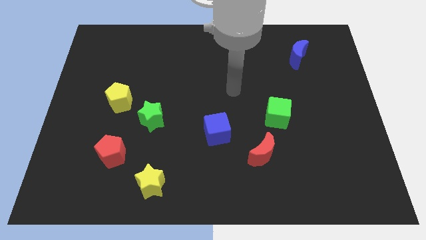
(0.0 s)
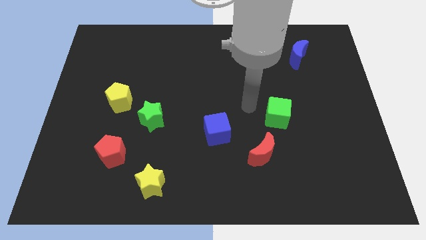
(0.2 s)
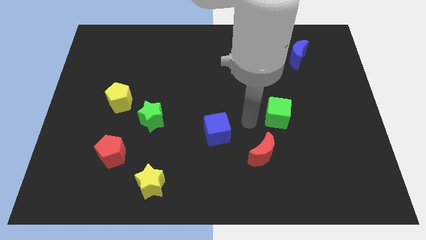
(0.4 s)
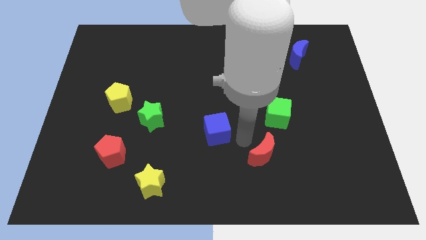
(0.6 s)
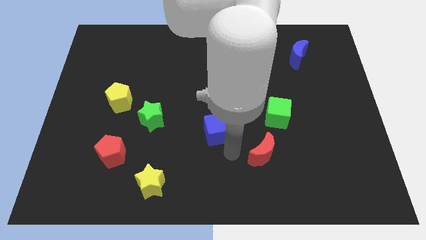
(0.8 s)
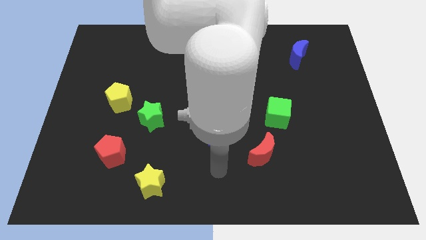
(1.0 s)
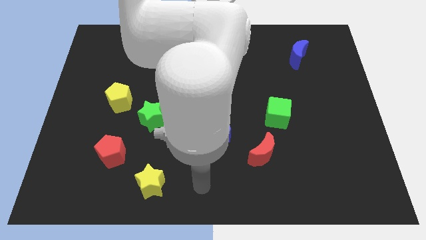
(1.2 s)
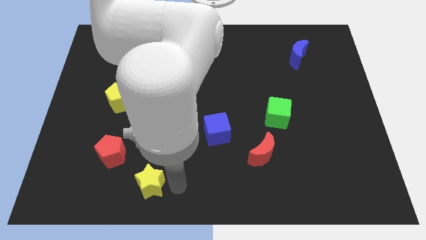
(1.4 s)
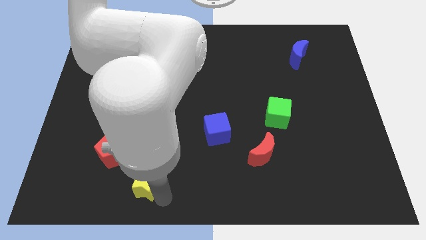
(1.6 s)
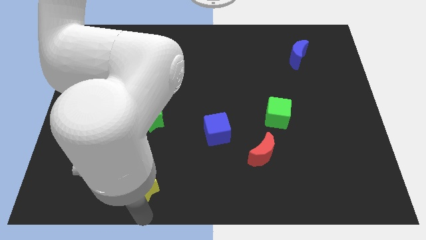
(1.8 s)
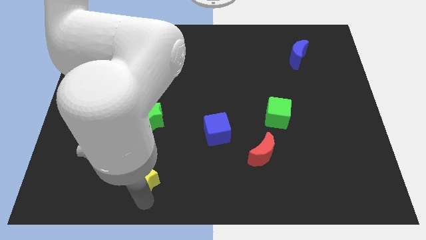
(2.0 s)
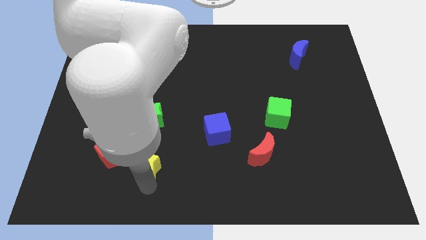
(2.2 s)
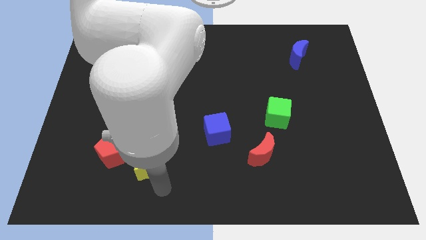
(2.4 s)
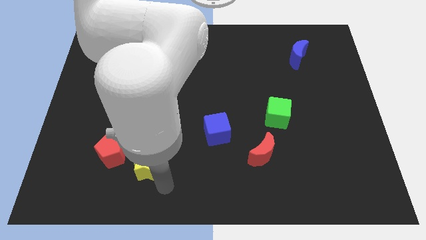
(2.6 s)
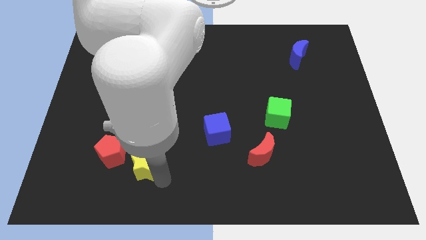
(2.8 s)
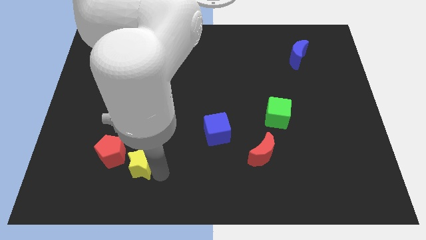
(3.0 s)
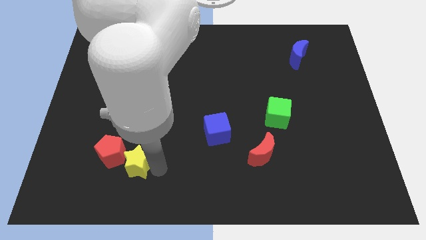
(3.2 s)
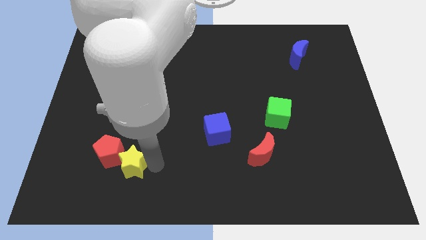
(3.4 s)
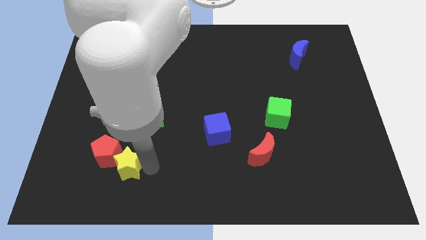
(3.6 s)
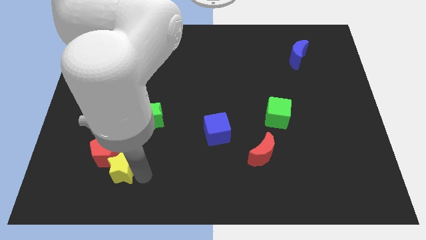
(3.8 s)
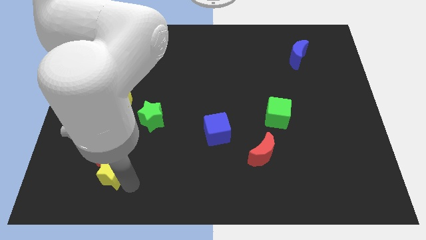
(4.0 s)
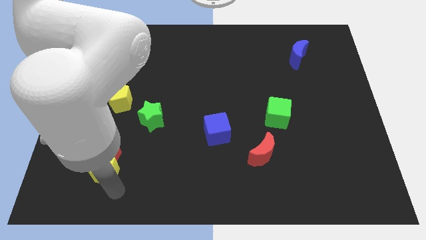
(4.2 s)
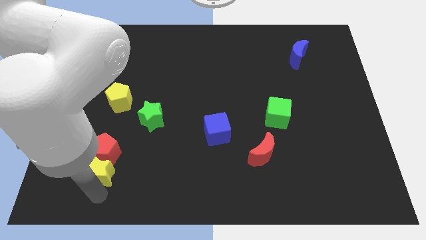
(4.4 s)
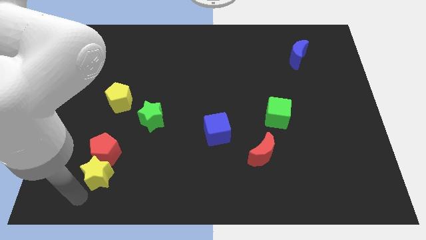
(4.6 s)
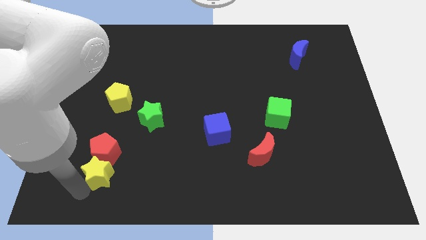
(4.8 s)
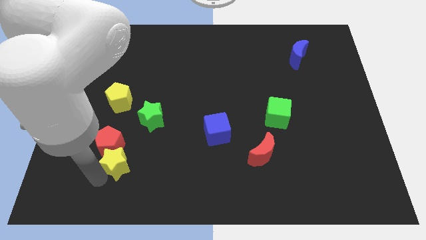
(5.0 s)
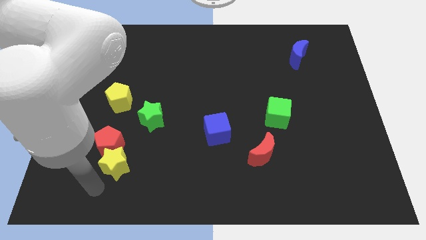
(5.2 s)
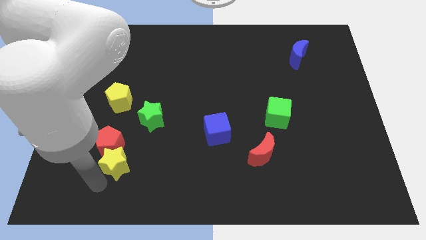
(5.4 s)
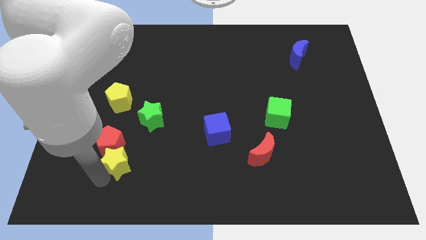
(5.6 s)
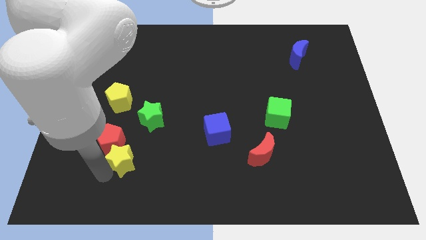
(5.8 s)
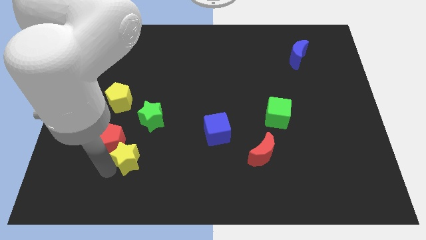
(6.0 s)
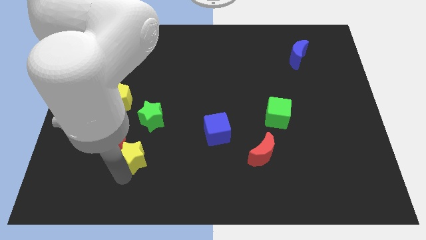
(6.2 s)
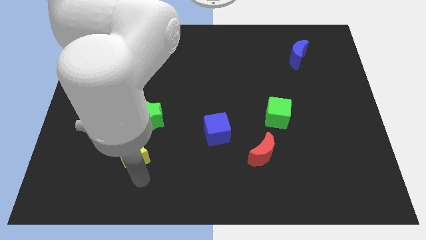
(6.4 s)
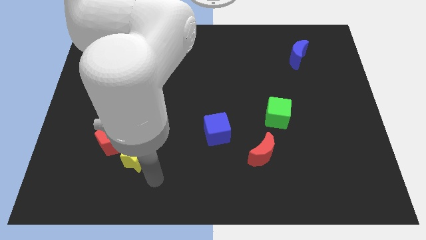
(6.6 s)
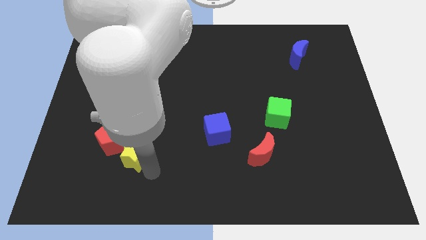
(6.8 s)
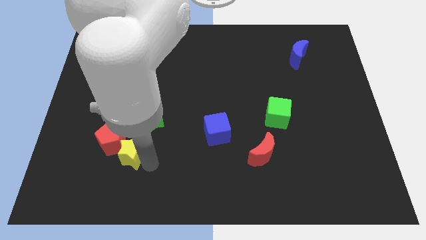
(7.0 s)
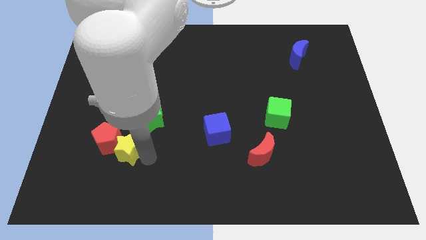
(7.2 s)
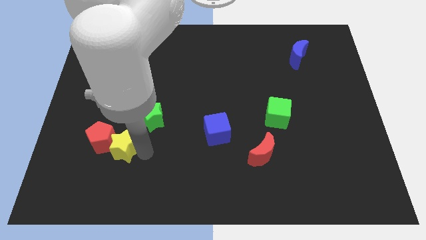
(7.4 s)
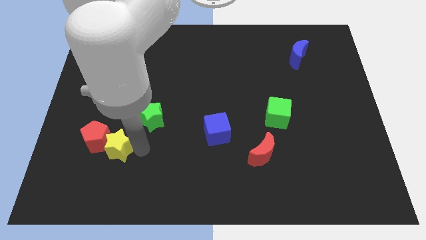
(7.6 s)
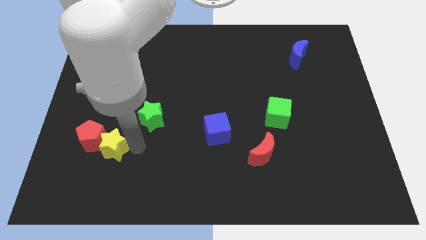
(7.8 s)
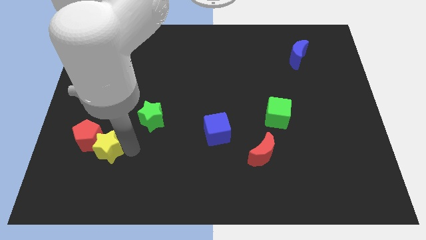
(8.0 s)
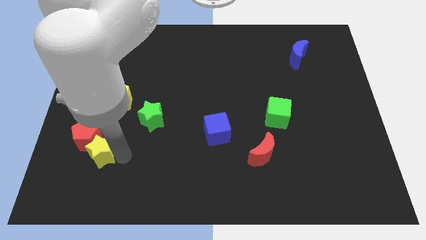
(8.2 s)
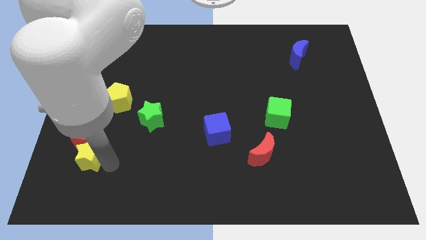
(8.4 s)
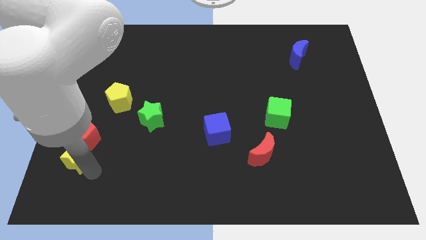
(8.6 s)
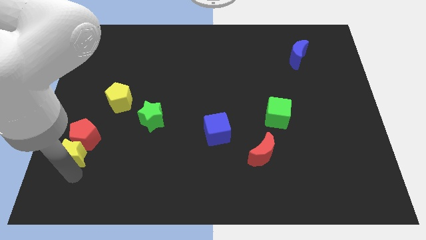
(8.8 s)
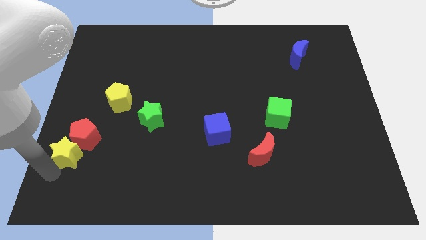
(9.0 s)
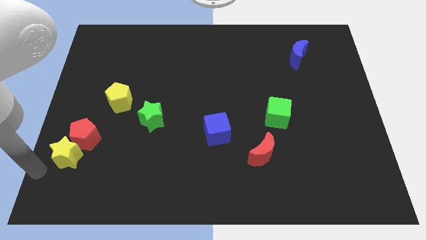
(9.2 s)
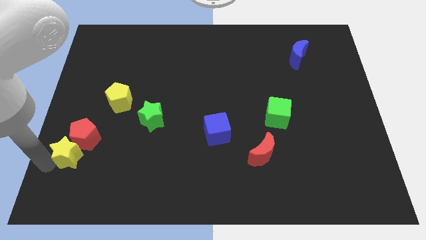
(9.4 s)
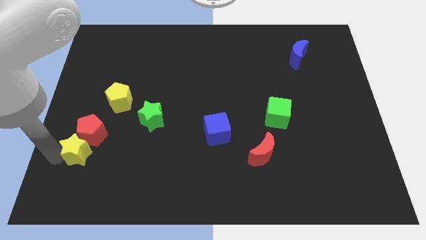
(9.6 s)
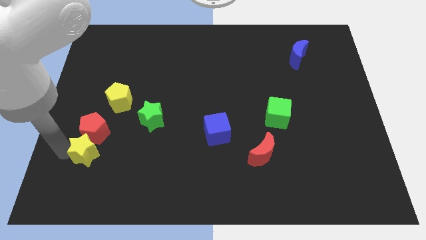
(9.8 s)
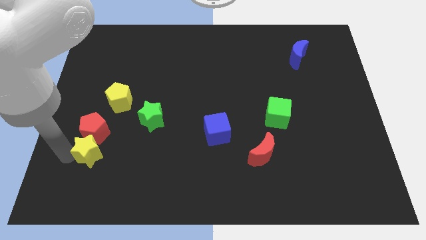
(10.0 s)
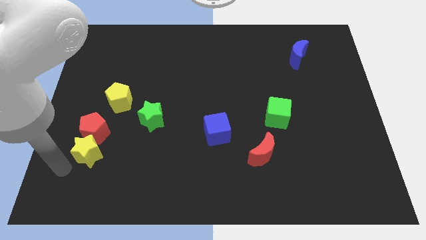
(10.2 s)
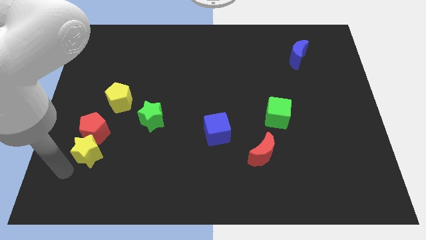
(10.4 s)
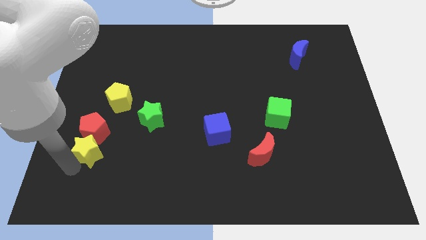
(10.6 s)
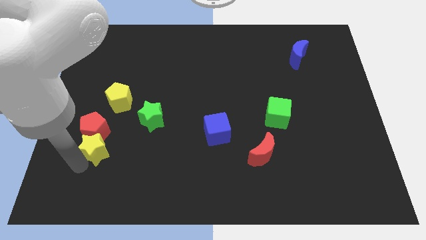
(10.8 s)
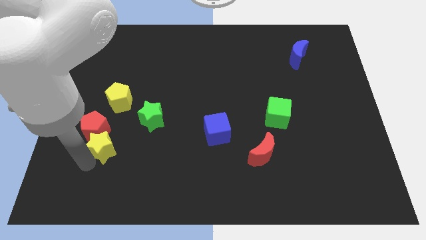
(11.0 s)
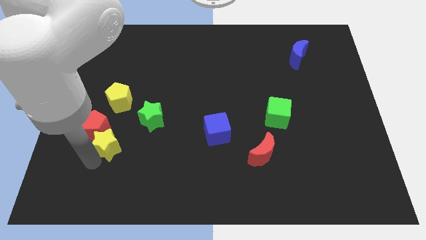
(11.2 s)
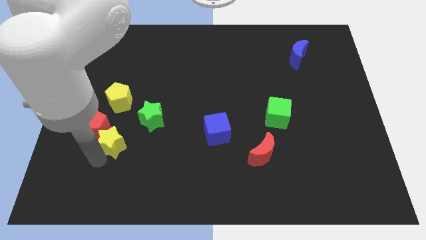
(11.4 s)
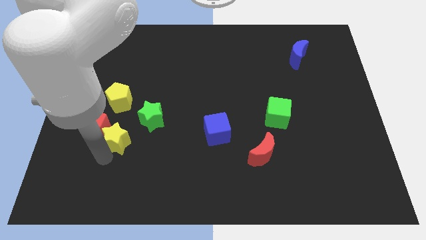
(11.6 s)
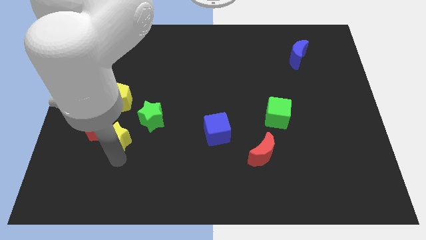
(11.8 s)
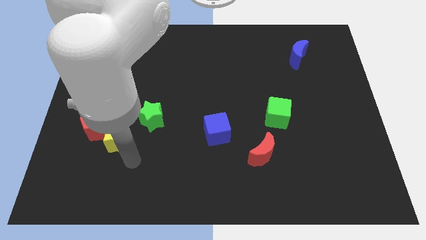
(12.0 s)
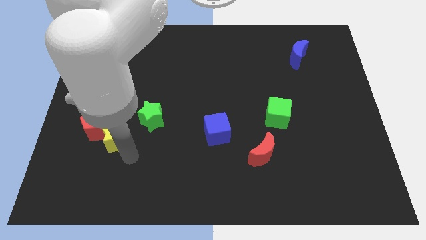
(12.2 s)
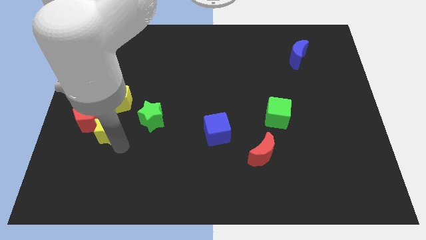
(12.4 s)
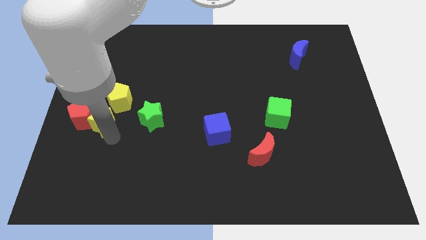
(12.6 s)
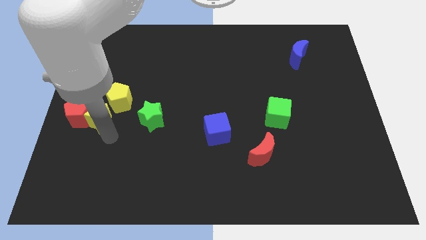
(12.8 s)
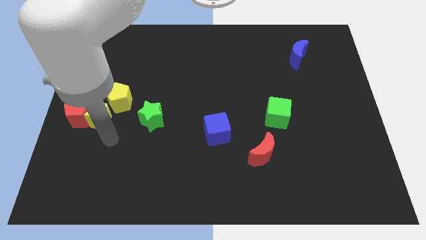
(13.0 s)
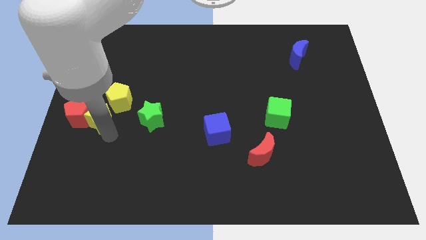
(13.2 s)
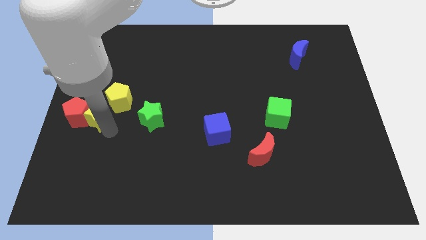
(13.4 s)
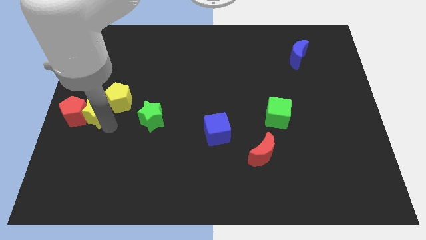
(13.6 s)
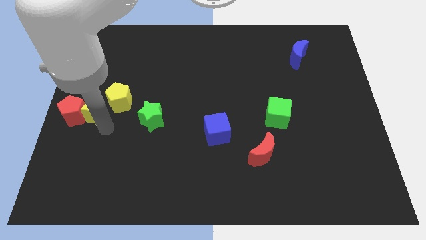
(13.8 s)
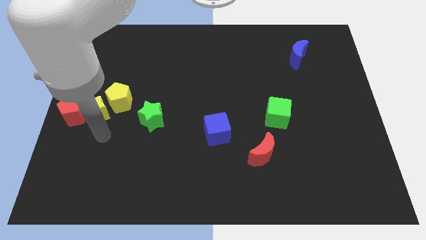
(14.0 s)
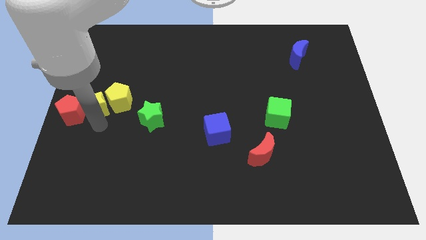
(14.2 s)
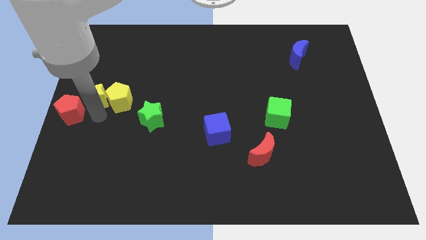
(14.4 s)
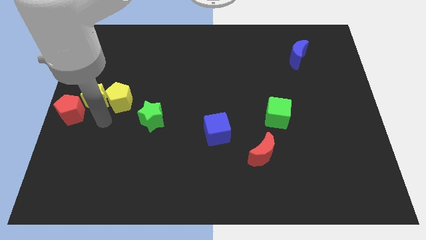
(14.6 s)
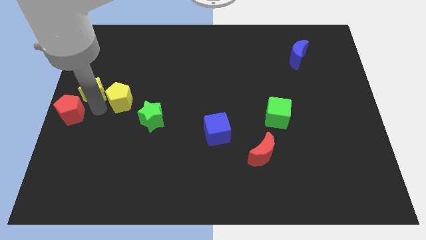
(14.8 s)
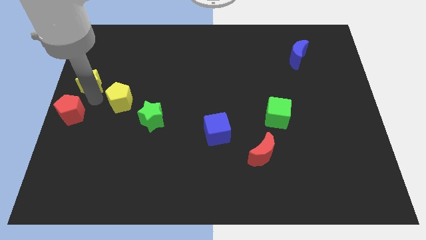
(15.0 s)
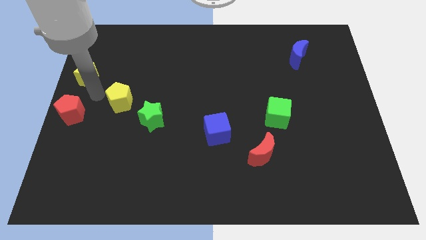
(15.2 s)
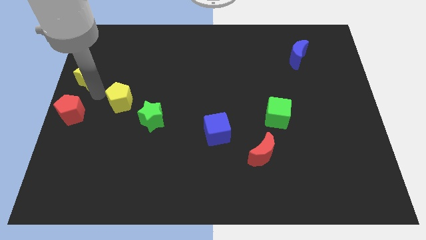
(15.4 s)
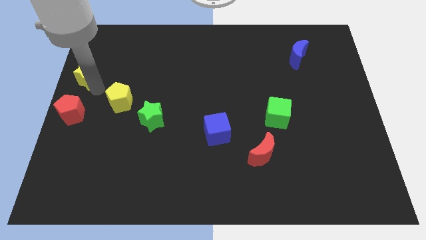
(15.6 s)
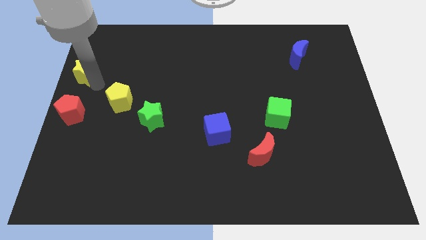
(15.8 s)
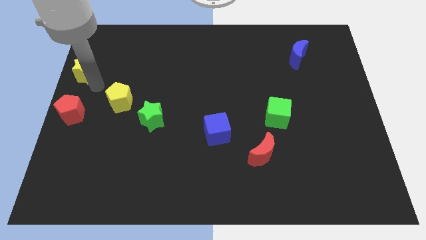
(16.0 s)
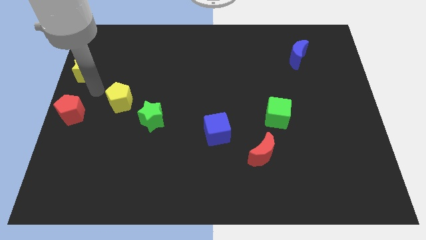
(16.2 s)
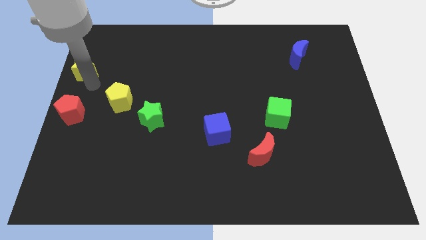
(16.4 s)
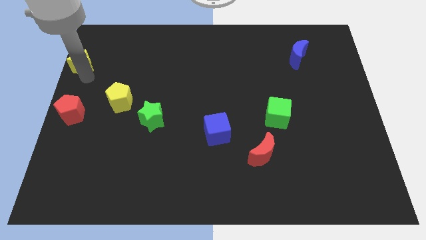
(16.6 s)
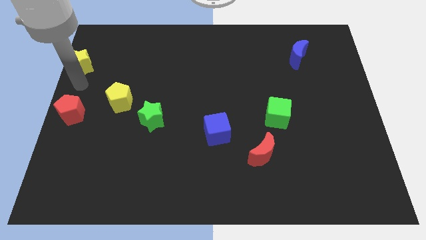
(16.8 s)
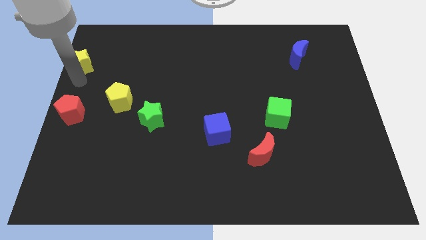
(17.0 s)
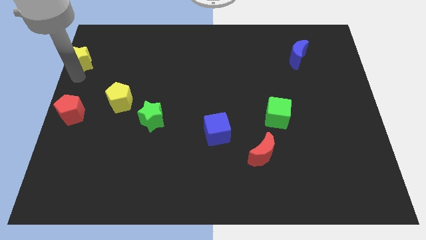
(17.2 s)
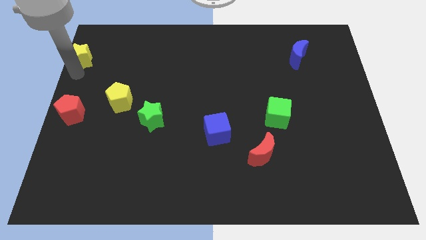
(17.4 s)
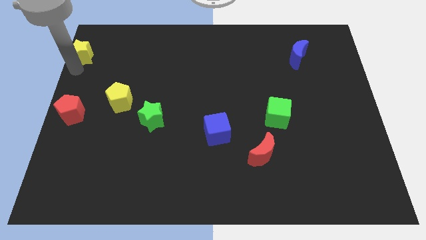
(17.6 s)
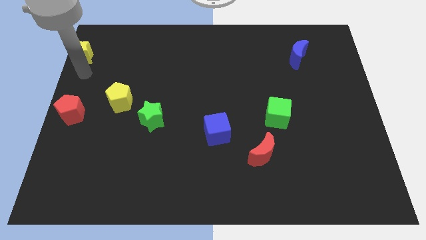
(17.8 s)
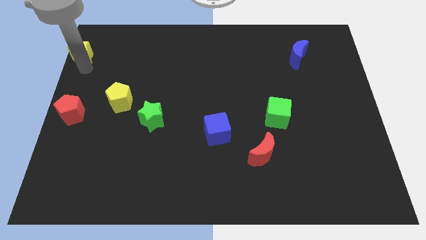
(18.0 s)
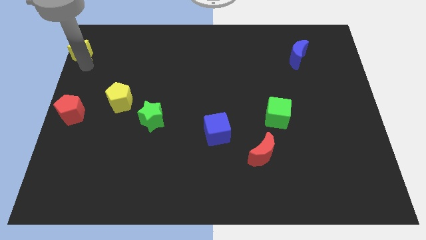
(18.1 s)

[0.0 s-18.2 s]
push the yellow star to the top left corner
